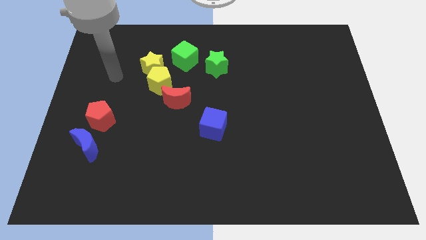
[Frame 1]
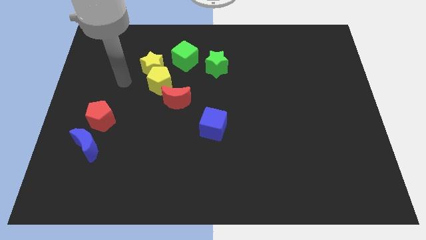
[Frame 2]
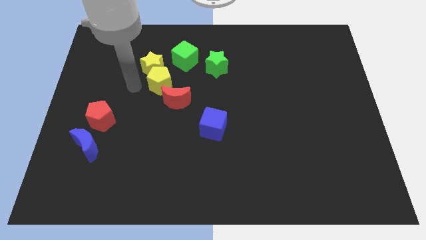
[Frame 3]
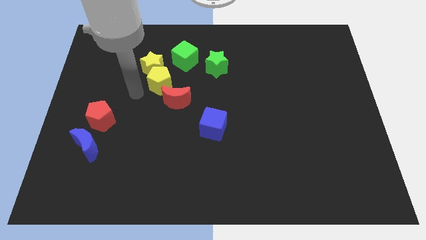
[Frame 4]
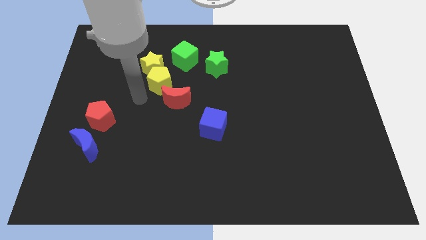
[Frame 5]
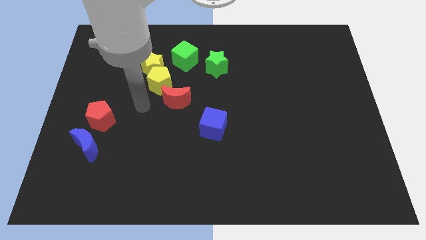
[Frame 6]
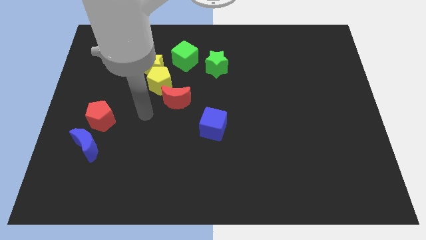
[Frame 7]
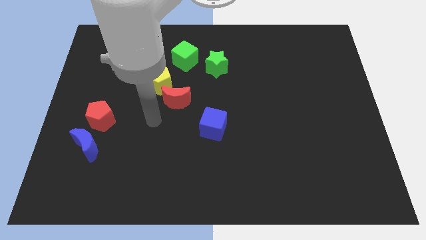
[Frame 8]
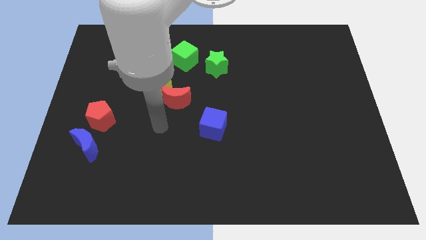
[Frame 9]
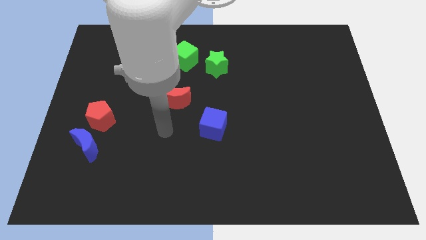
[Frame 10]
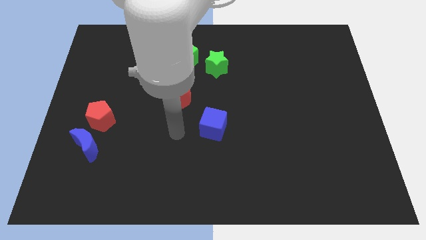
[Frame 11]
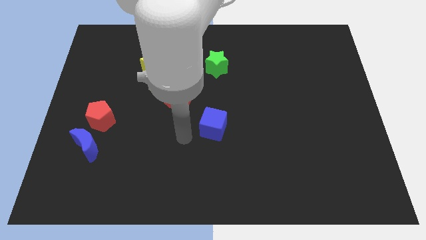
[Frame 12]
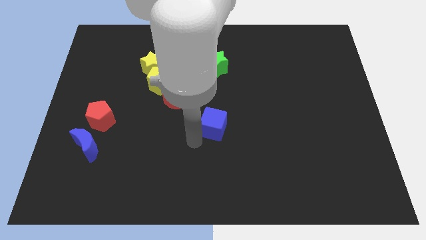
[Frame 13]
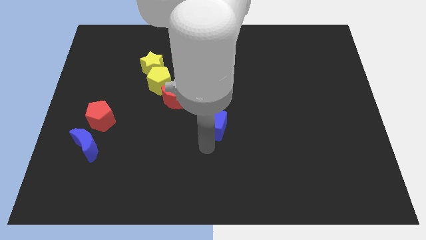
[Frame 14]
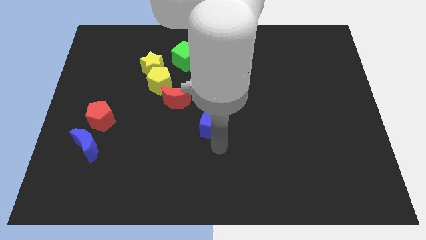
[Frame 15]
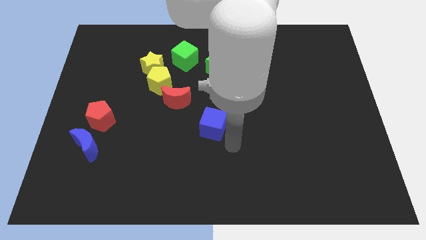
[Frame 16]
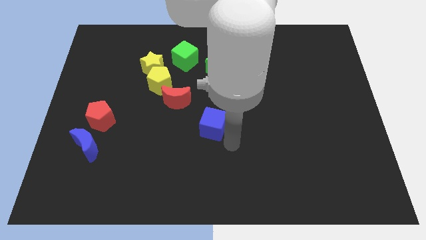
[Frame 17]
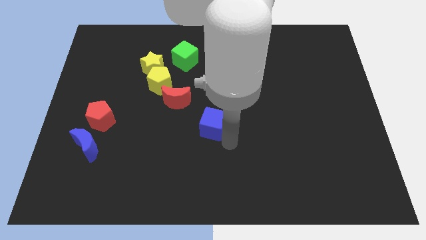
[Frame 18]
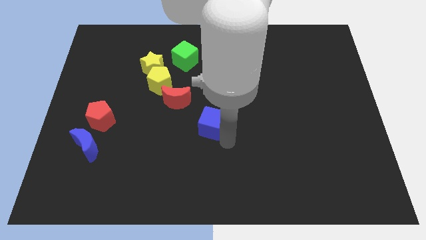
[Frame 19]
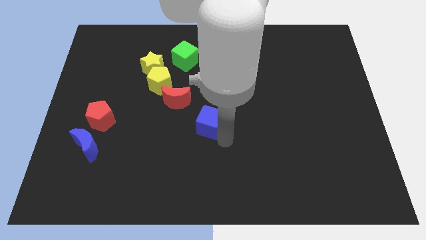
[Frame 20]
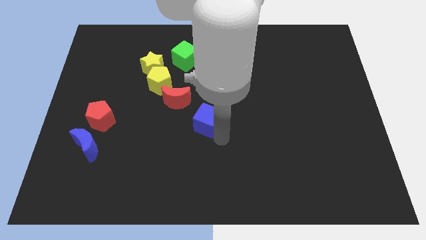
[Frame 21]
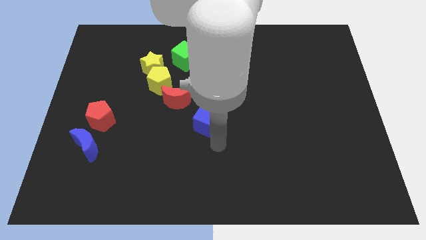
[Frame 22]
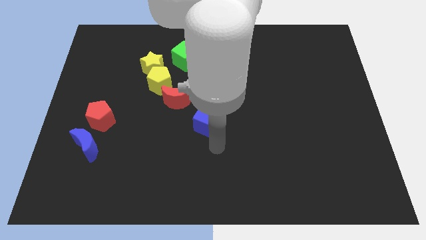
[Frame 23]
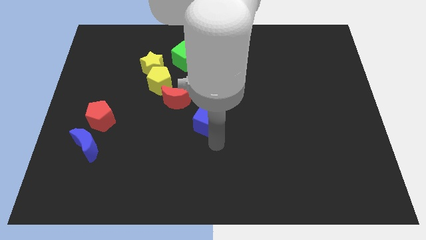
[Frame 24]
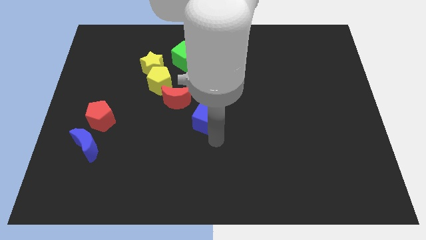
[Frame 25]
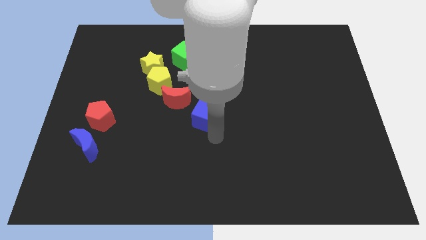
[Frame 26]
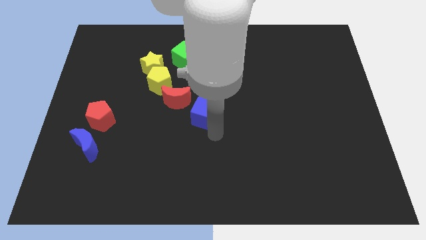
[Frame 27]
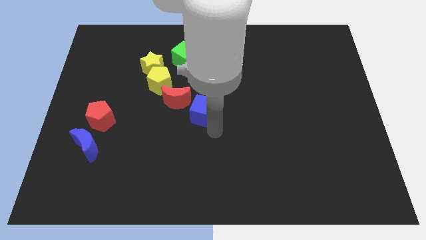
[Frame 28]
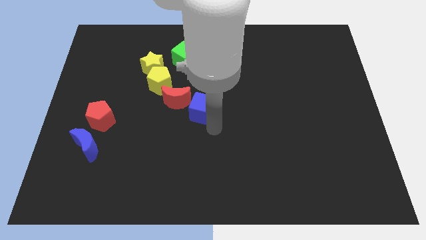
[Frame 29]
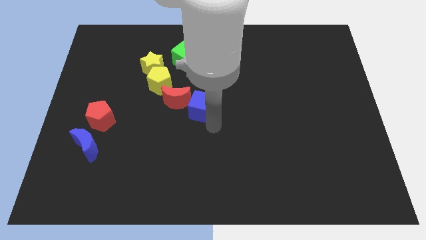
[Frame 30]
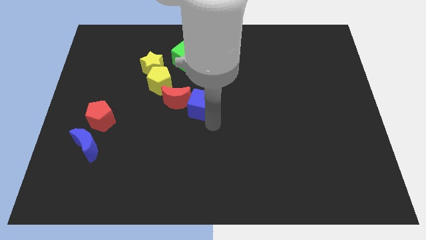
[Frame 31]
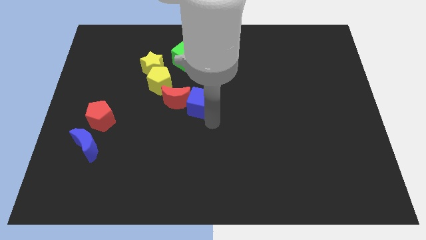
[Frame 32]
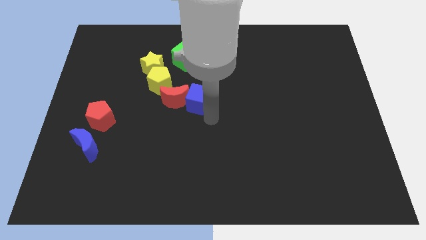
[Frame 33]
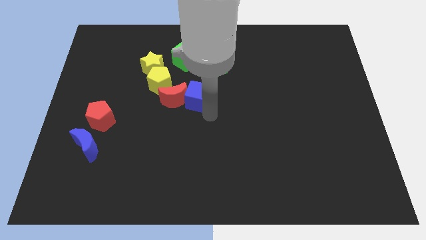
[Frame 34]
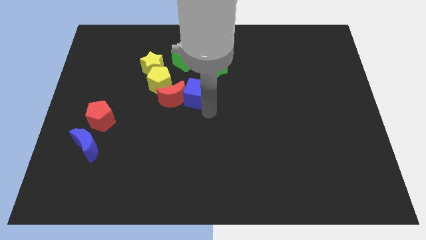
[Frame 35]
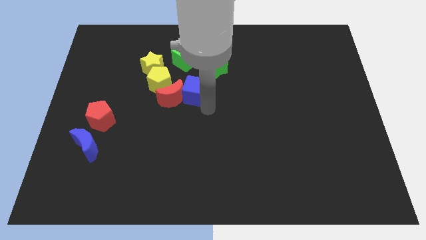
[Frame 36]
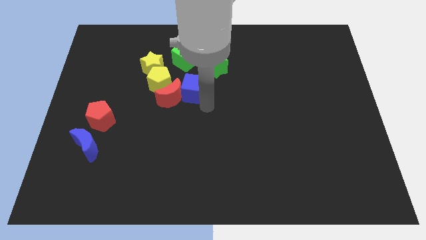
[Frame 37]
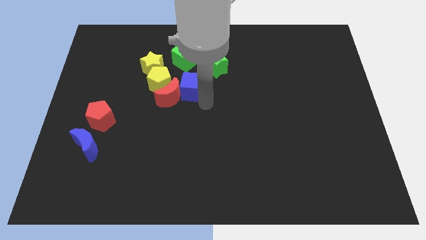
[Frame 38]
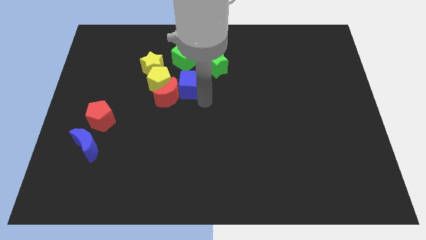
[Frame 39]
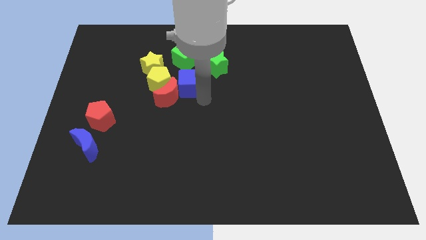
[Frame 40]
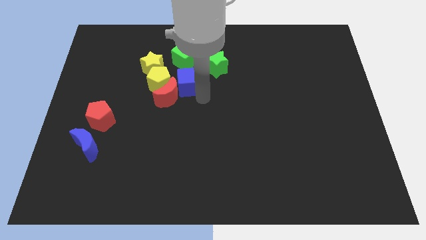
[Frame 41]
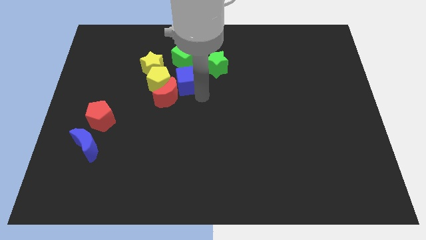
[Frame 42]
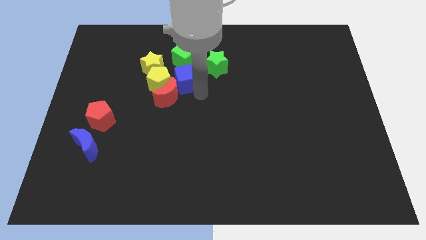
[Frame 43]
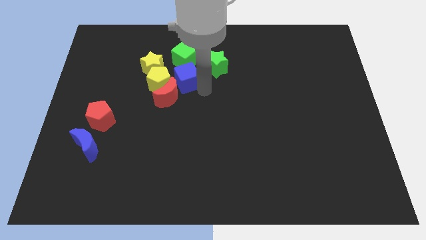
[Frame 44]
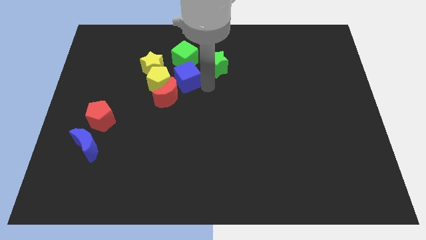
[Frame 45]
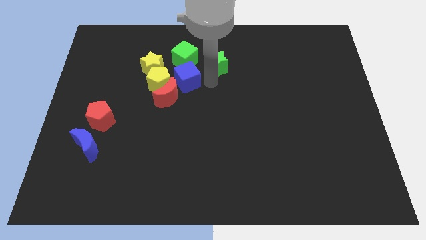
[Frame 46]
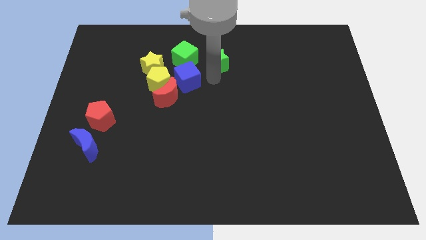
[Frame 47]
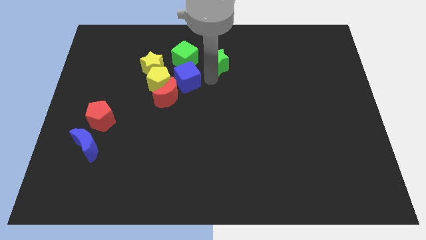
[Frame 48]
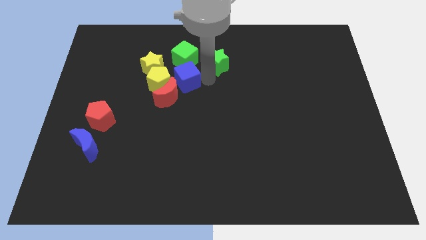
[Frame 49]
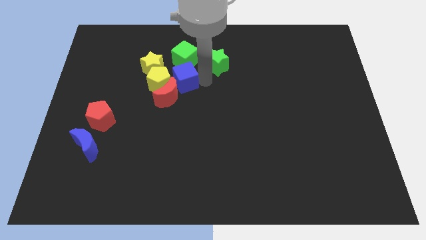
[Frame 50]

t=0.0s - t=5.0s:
slide the blue cube towards the yellow pentagon

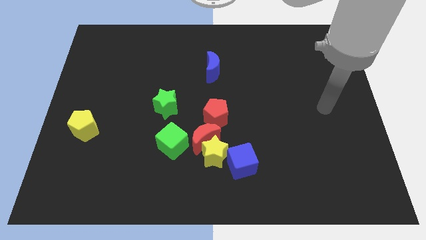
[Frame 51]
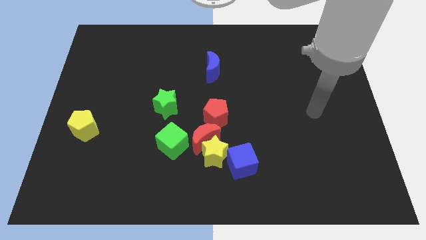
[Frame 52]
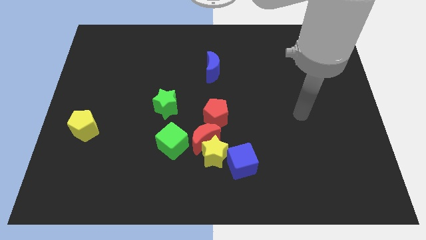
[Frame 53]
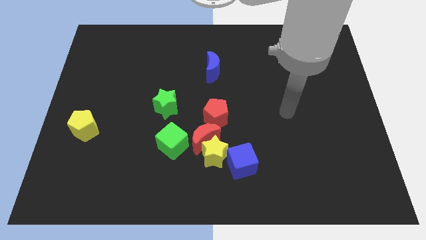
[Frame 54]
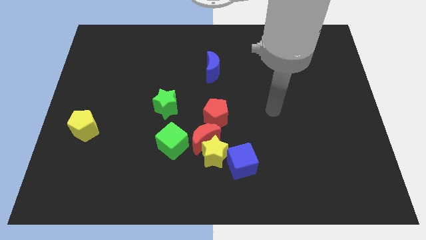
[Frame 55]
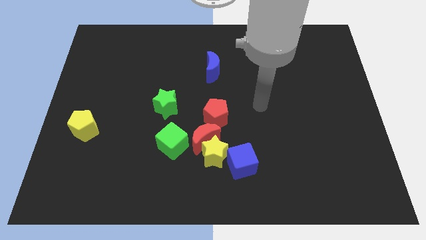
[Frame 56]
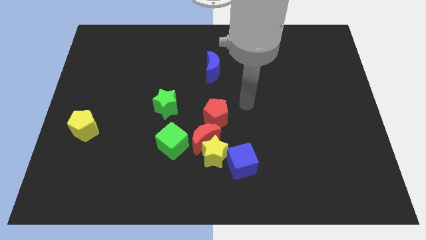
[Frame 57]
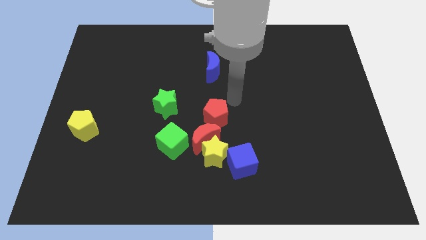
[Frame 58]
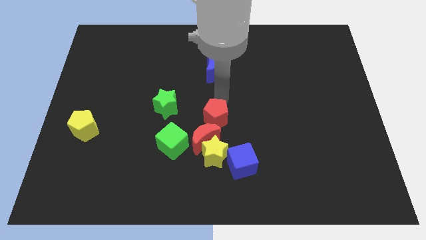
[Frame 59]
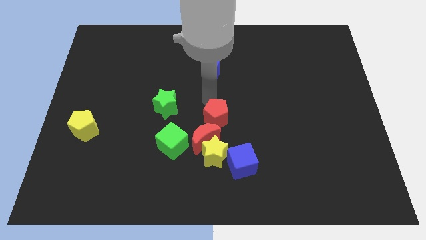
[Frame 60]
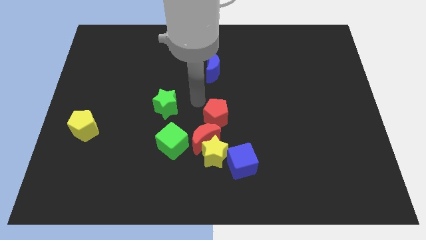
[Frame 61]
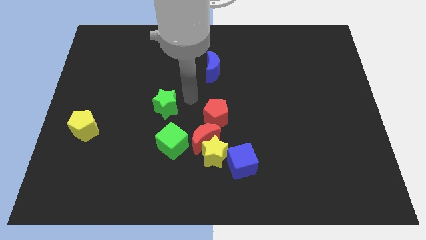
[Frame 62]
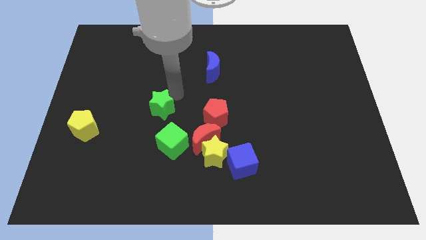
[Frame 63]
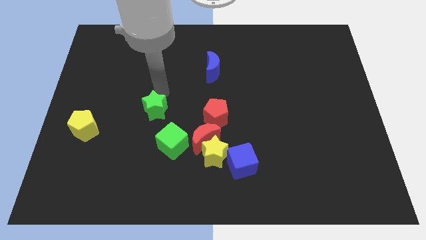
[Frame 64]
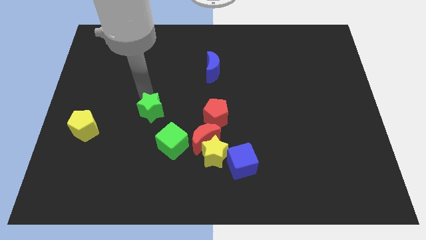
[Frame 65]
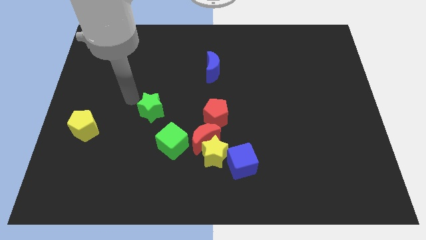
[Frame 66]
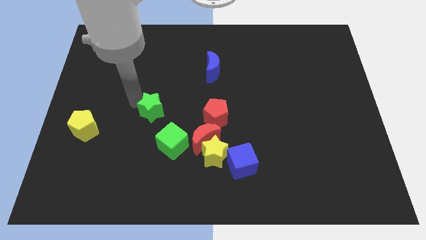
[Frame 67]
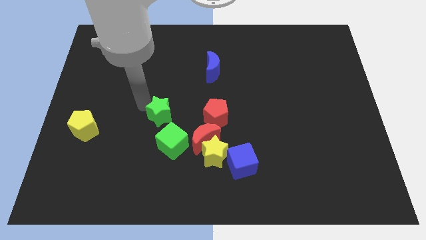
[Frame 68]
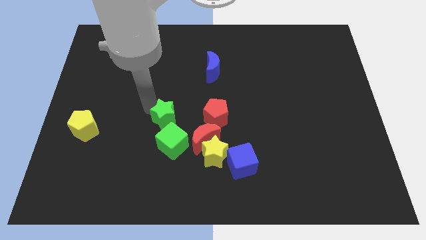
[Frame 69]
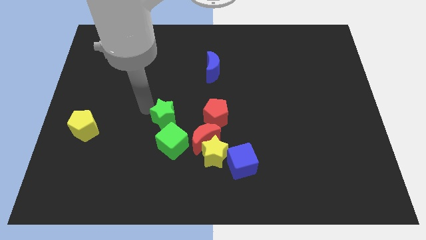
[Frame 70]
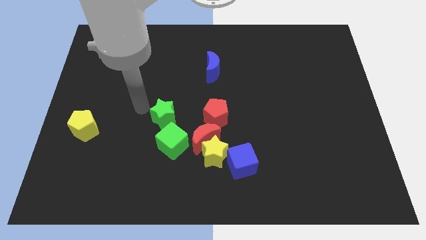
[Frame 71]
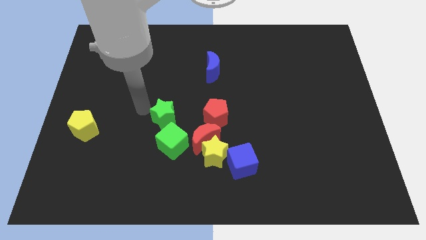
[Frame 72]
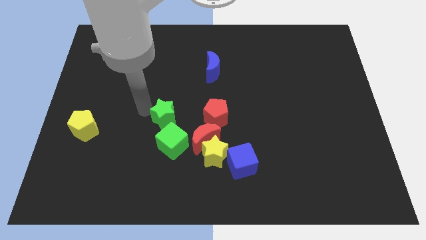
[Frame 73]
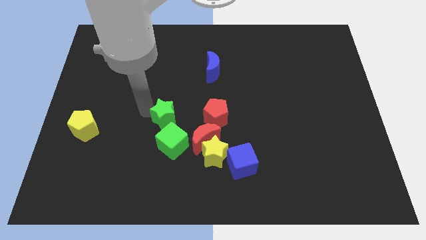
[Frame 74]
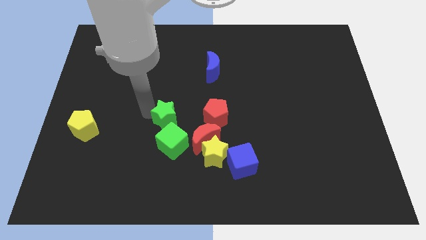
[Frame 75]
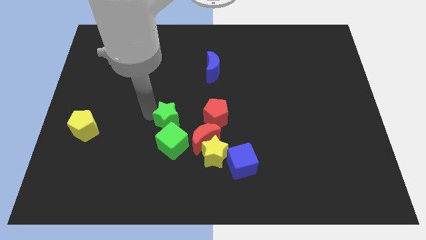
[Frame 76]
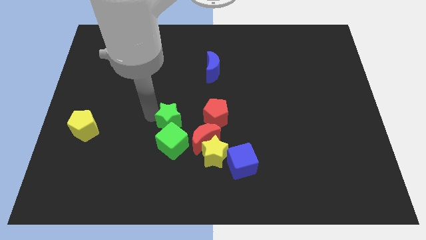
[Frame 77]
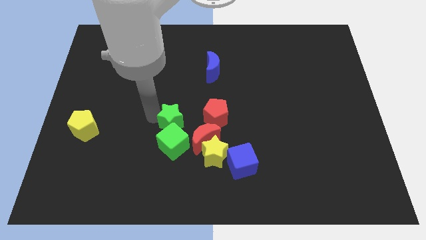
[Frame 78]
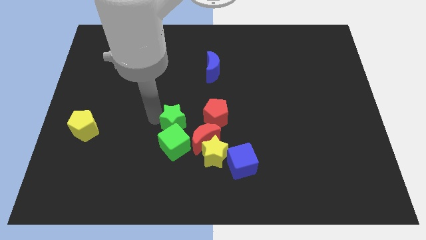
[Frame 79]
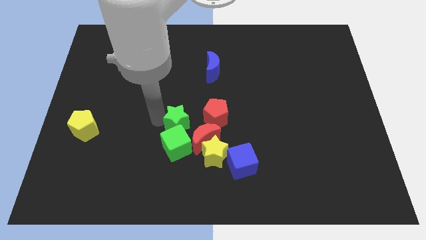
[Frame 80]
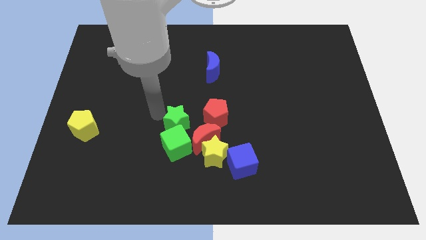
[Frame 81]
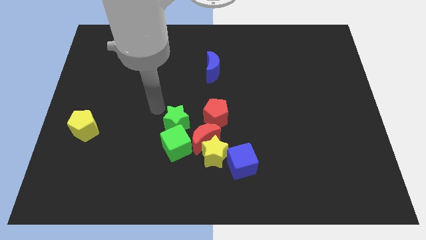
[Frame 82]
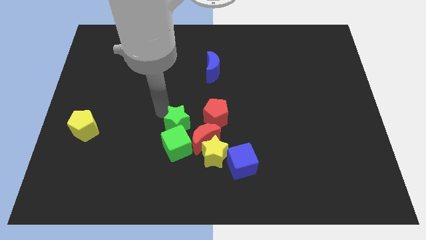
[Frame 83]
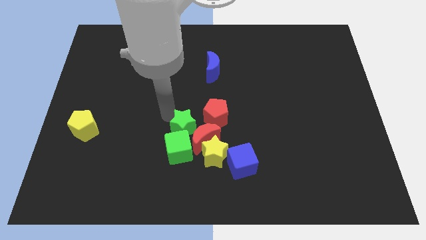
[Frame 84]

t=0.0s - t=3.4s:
put the green star next to the red moon
